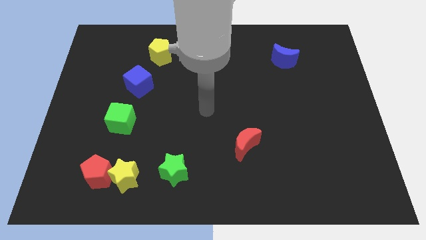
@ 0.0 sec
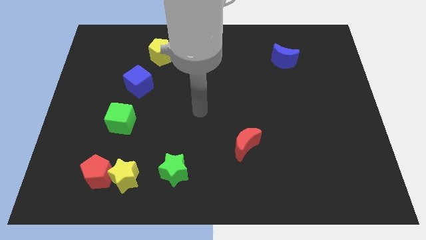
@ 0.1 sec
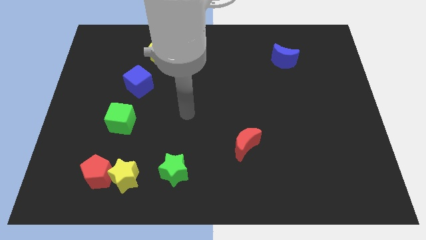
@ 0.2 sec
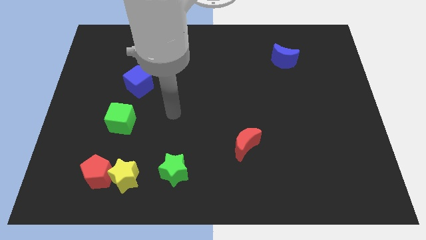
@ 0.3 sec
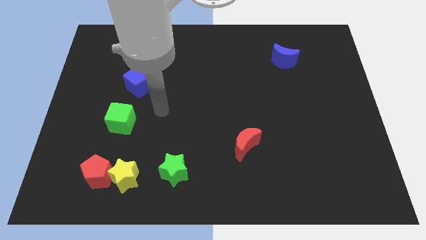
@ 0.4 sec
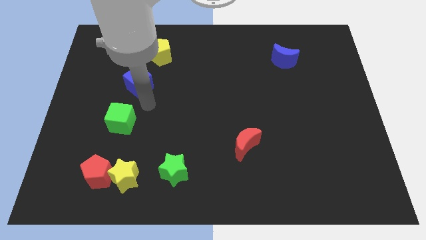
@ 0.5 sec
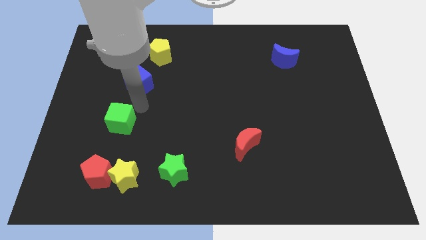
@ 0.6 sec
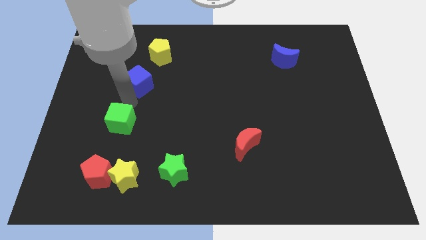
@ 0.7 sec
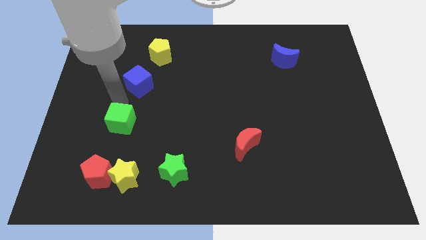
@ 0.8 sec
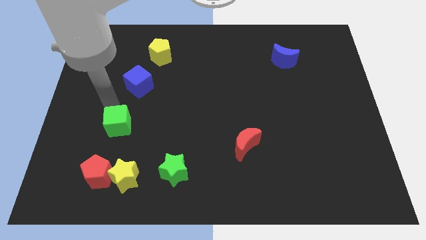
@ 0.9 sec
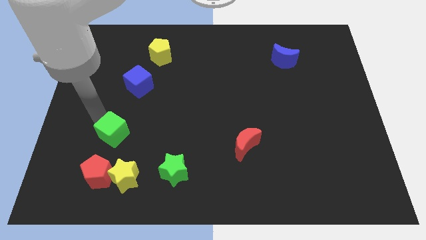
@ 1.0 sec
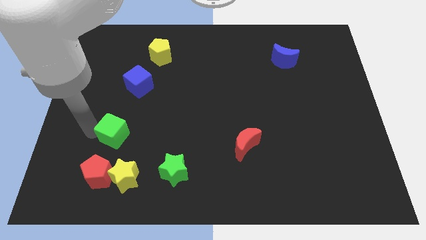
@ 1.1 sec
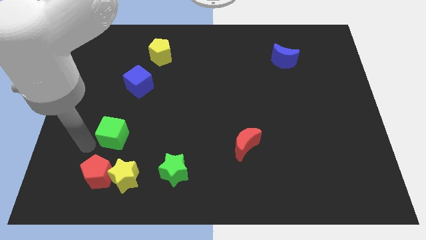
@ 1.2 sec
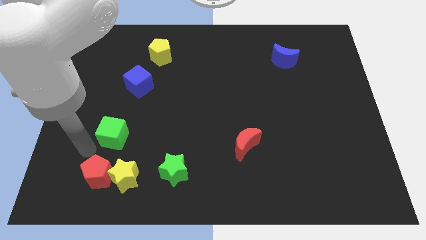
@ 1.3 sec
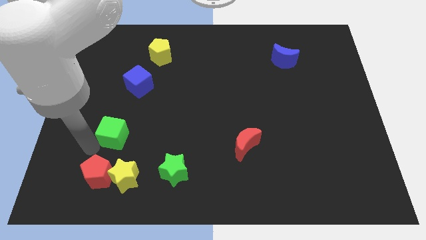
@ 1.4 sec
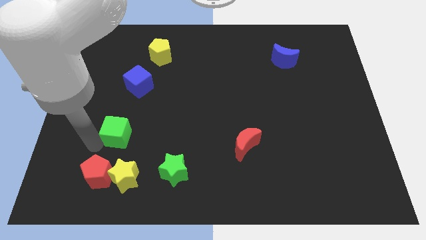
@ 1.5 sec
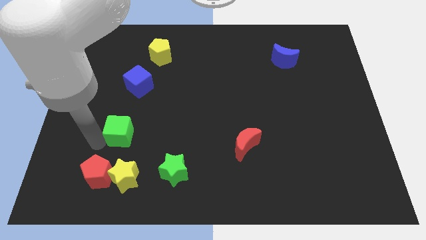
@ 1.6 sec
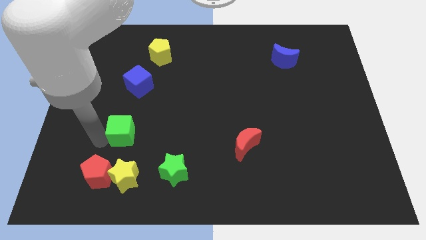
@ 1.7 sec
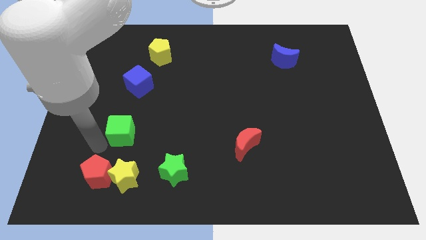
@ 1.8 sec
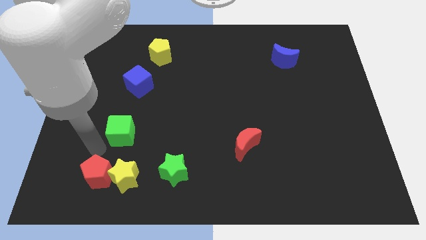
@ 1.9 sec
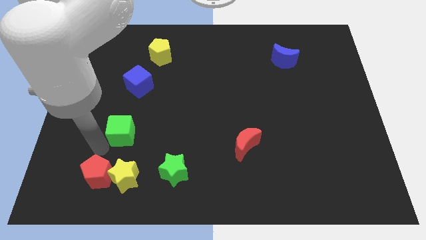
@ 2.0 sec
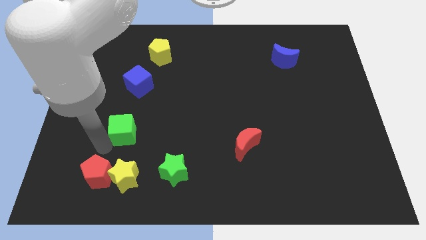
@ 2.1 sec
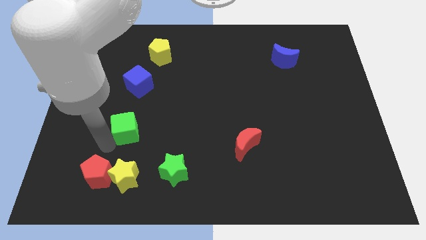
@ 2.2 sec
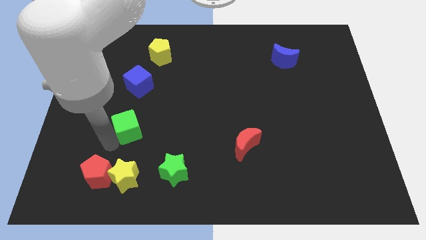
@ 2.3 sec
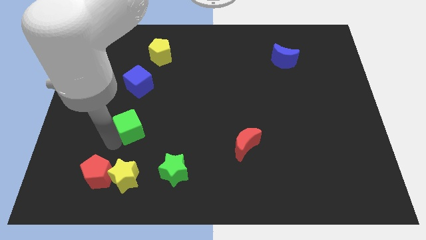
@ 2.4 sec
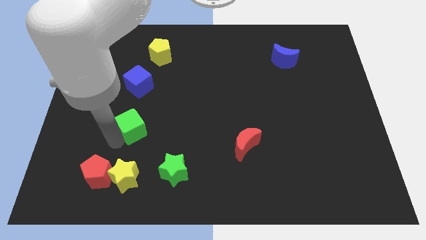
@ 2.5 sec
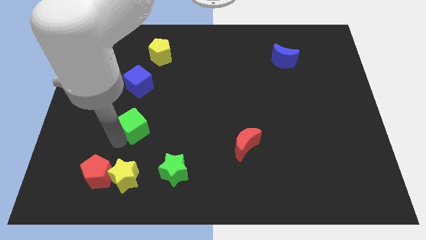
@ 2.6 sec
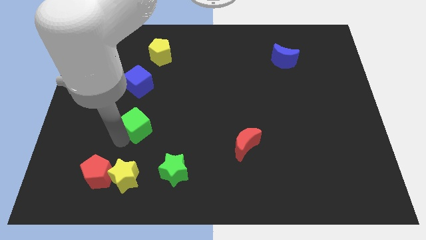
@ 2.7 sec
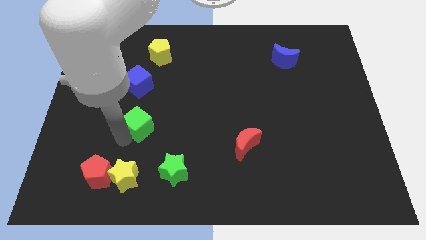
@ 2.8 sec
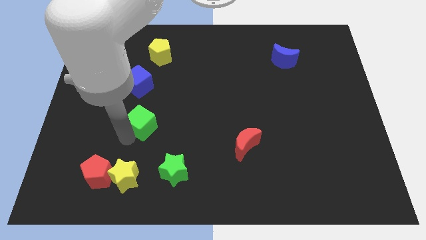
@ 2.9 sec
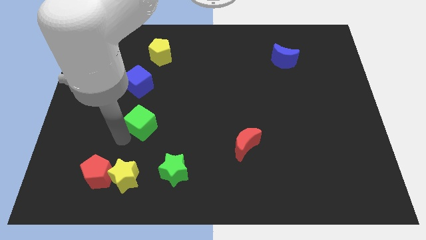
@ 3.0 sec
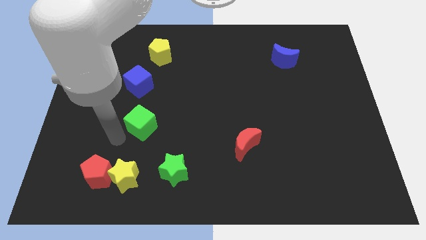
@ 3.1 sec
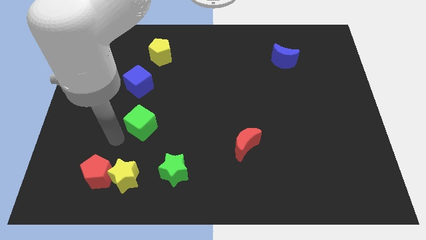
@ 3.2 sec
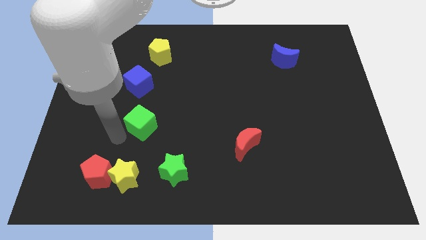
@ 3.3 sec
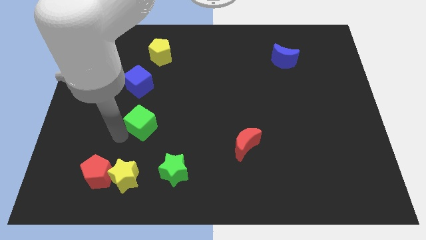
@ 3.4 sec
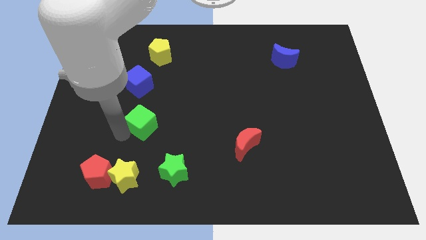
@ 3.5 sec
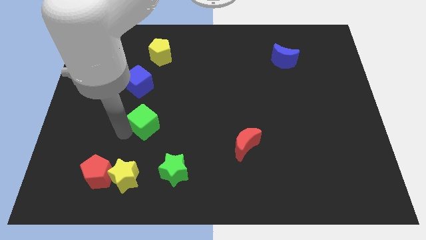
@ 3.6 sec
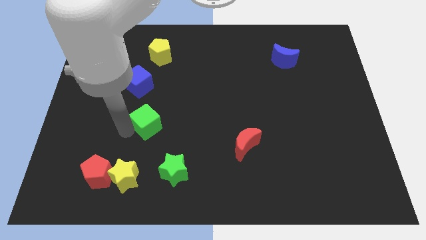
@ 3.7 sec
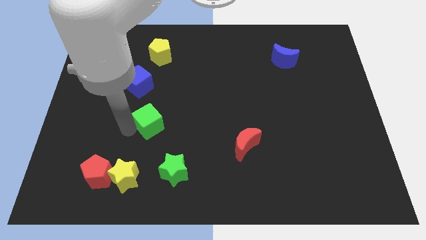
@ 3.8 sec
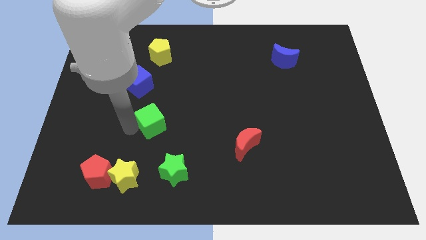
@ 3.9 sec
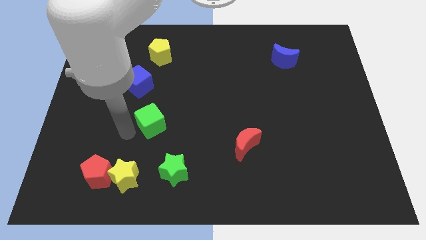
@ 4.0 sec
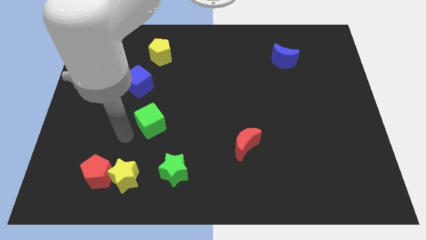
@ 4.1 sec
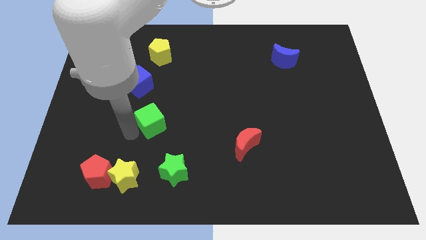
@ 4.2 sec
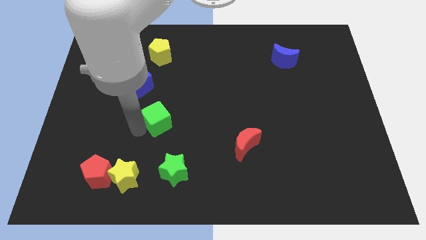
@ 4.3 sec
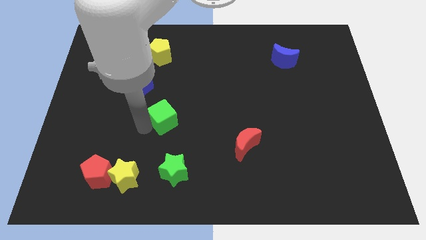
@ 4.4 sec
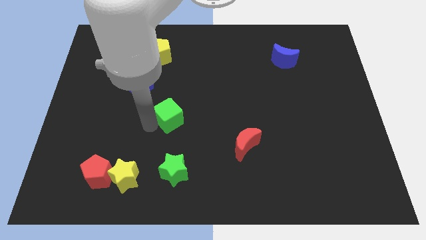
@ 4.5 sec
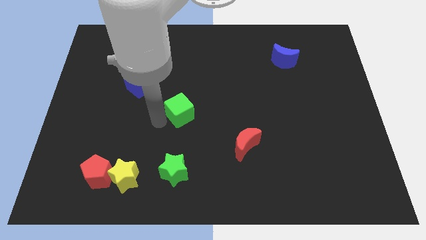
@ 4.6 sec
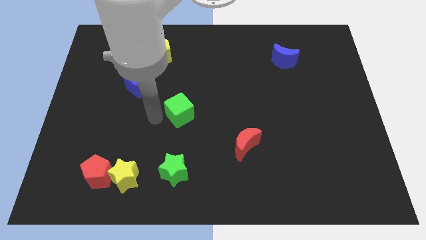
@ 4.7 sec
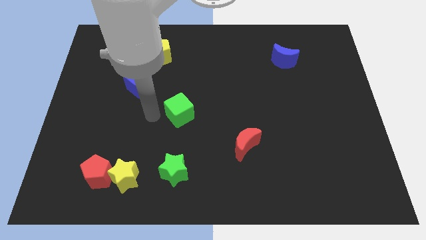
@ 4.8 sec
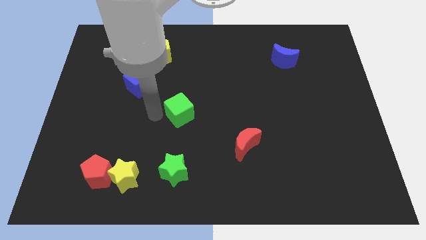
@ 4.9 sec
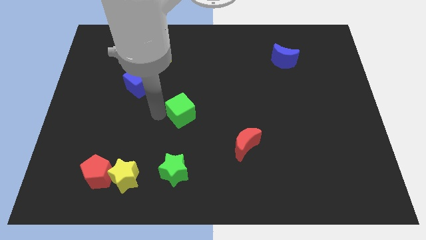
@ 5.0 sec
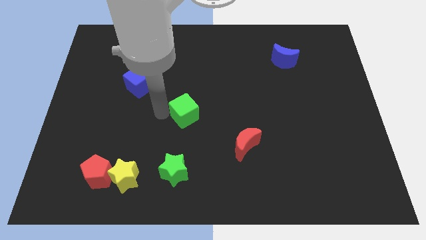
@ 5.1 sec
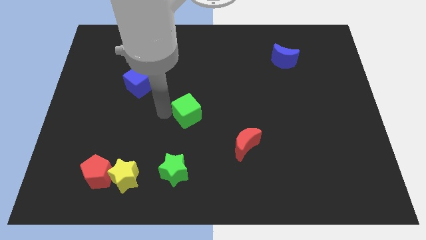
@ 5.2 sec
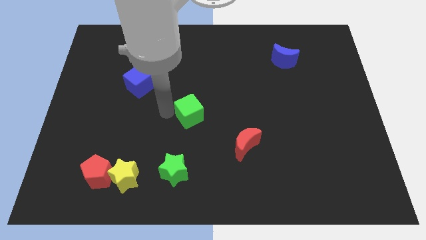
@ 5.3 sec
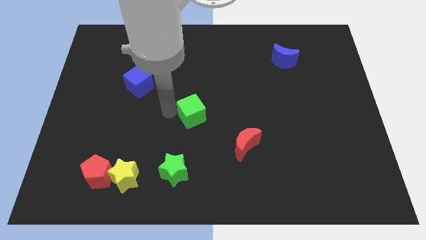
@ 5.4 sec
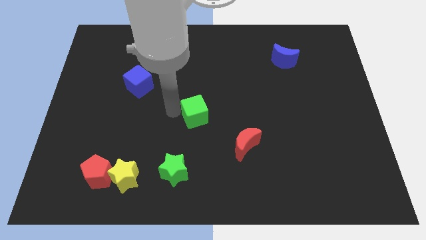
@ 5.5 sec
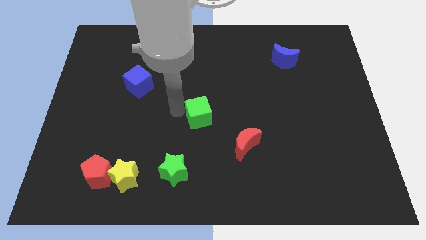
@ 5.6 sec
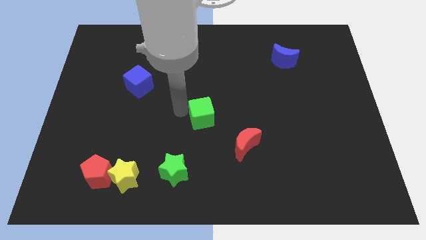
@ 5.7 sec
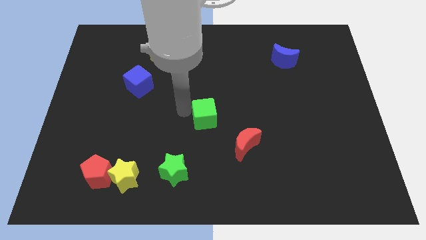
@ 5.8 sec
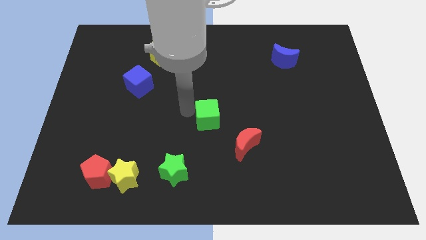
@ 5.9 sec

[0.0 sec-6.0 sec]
move the green cube right

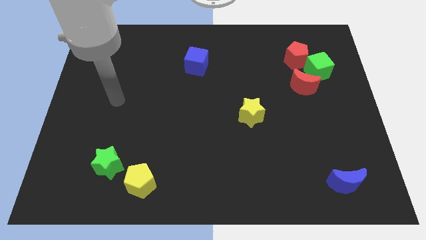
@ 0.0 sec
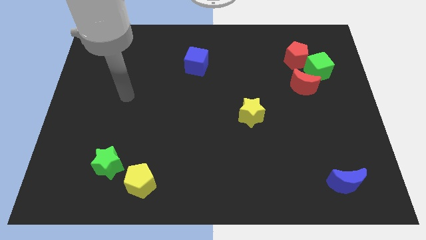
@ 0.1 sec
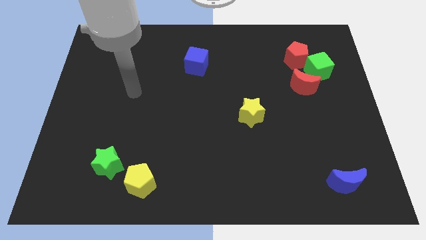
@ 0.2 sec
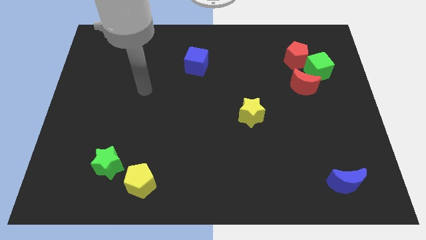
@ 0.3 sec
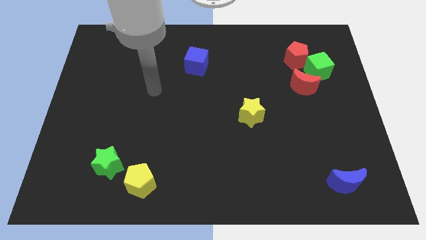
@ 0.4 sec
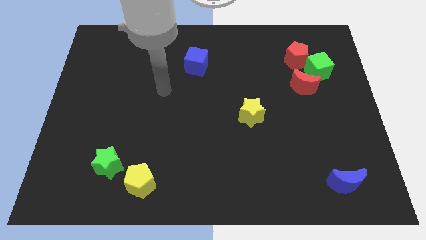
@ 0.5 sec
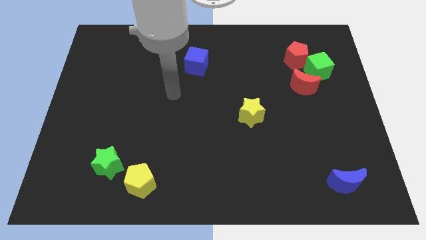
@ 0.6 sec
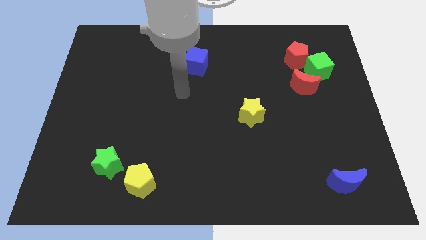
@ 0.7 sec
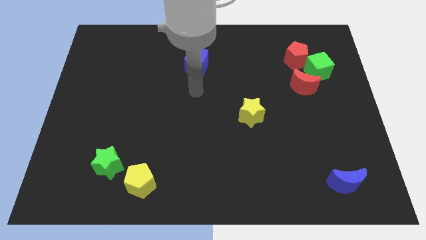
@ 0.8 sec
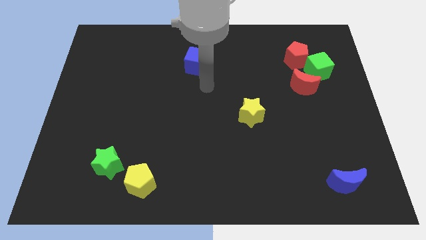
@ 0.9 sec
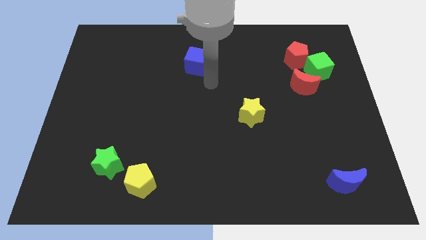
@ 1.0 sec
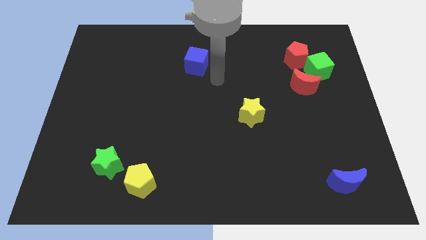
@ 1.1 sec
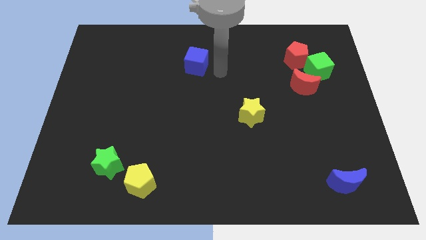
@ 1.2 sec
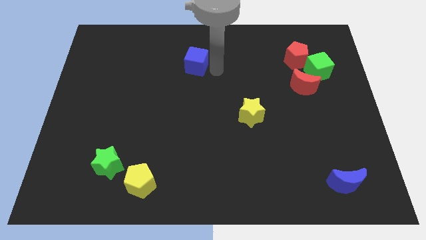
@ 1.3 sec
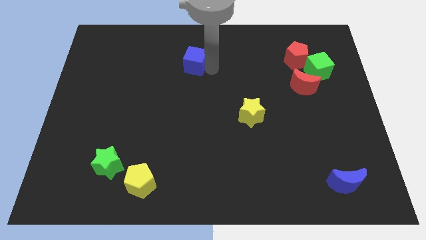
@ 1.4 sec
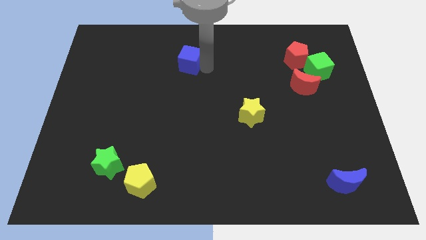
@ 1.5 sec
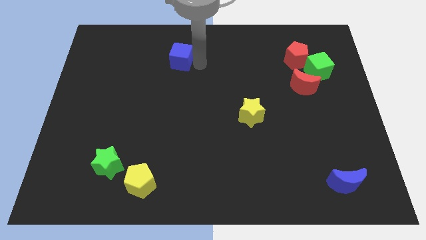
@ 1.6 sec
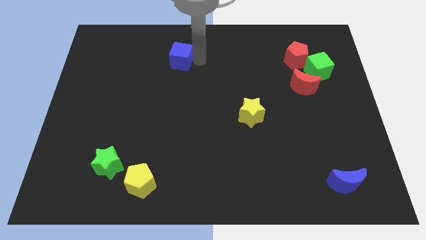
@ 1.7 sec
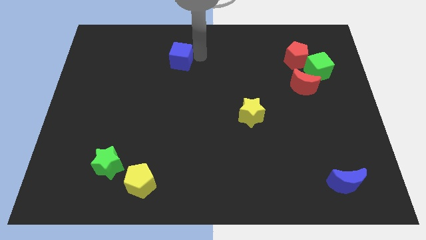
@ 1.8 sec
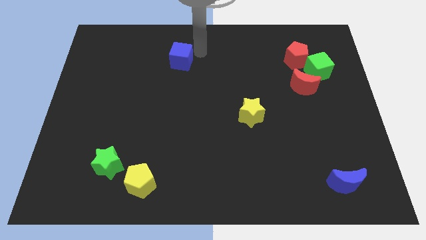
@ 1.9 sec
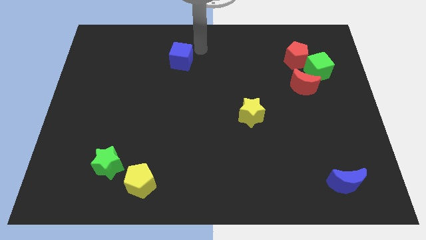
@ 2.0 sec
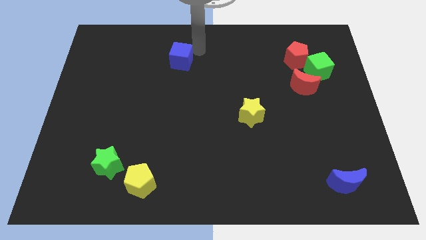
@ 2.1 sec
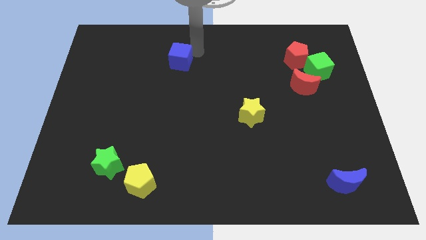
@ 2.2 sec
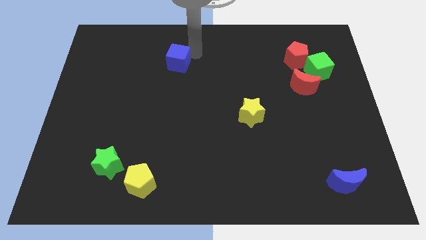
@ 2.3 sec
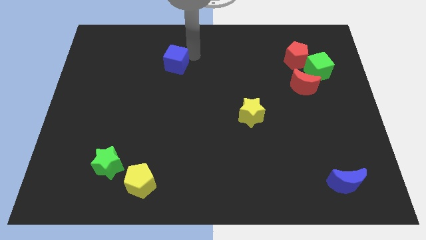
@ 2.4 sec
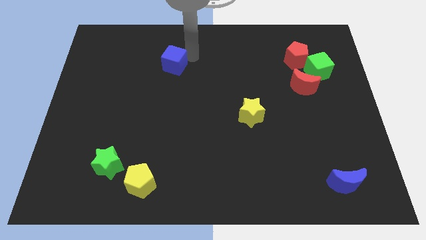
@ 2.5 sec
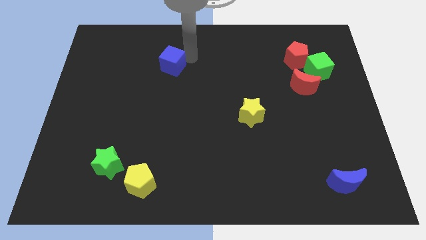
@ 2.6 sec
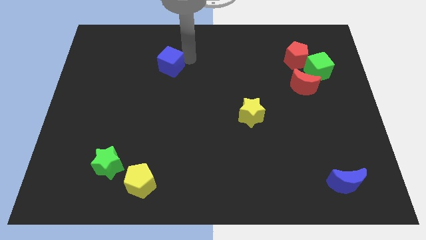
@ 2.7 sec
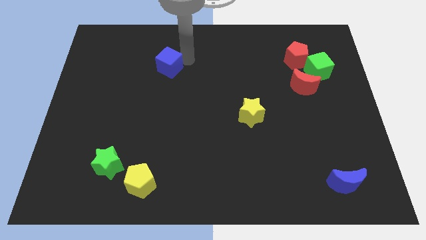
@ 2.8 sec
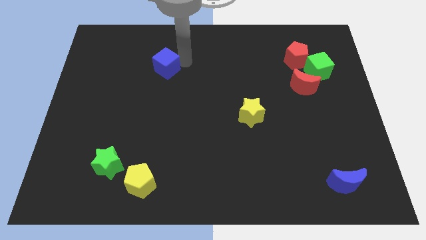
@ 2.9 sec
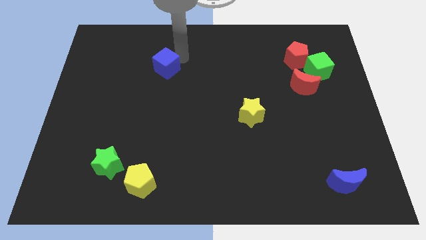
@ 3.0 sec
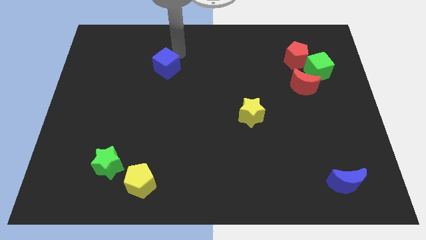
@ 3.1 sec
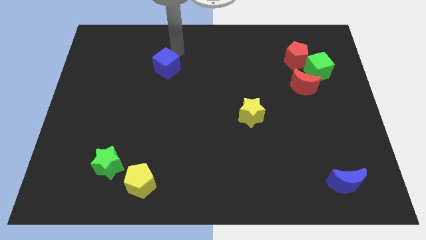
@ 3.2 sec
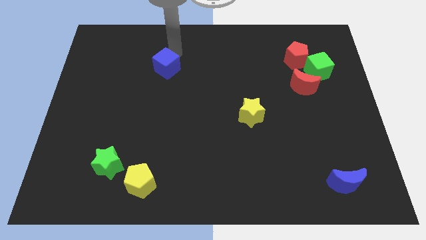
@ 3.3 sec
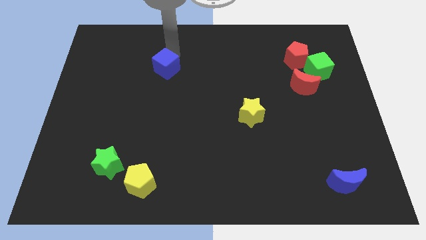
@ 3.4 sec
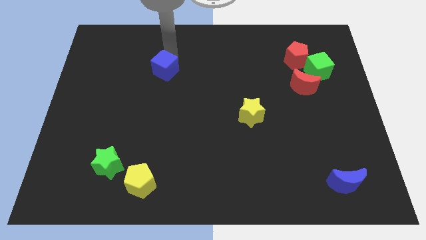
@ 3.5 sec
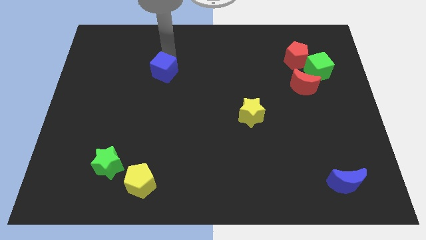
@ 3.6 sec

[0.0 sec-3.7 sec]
slightly push the blue cube downwards and then to the left
